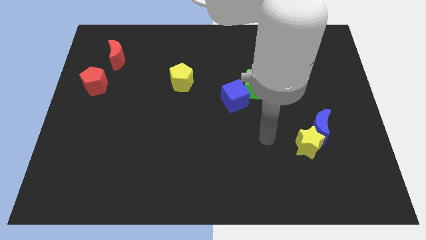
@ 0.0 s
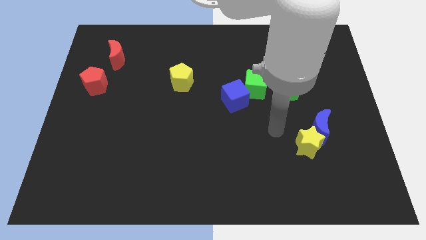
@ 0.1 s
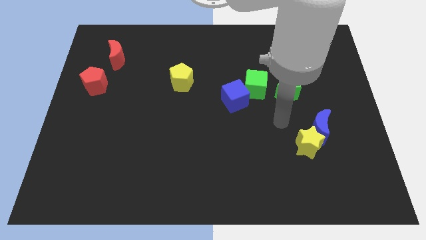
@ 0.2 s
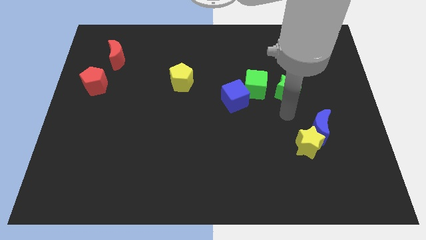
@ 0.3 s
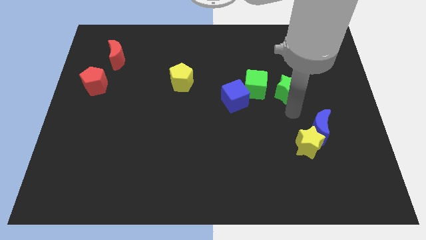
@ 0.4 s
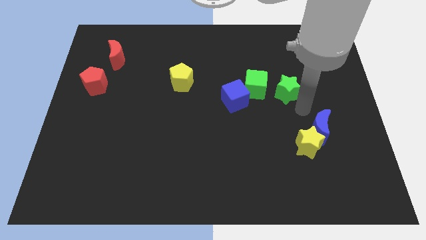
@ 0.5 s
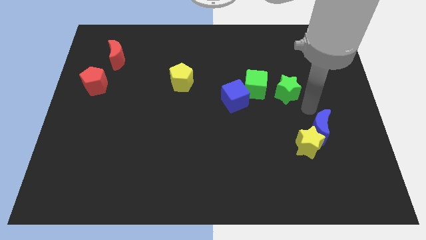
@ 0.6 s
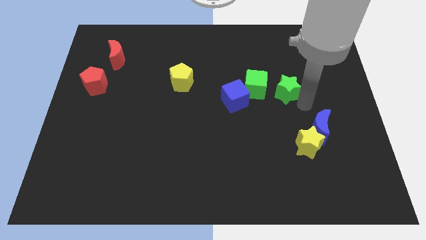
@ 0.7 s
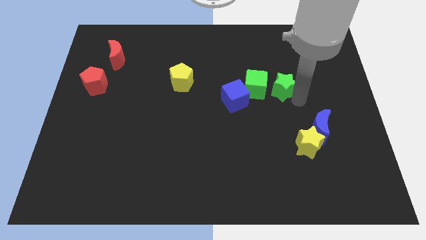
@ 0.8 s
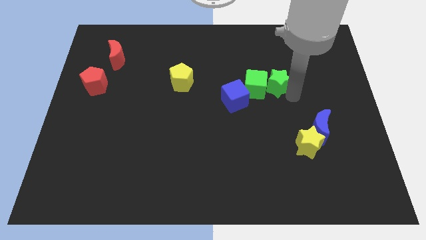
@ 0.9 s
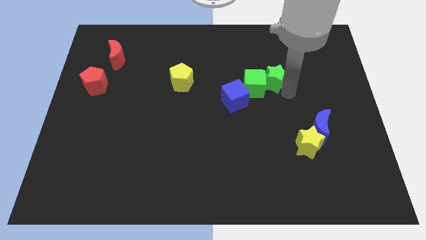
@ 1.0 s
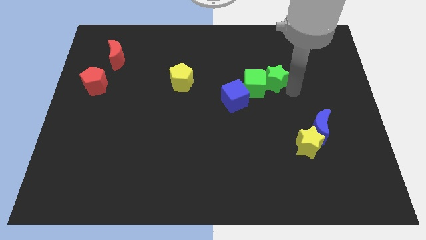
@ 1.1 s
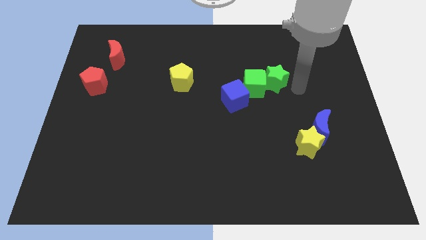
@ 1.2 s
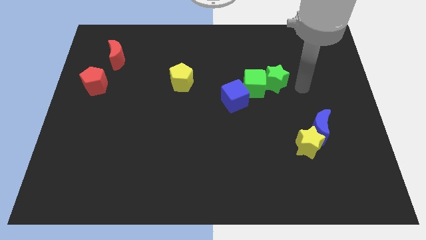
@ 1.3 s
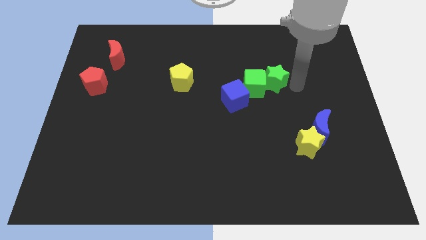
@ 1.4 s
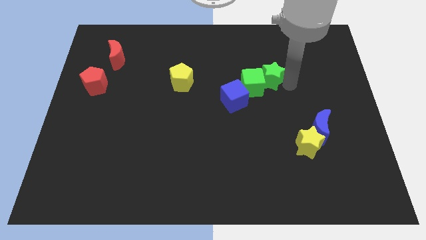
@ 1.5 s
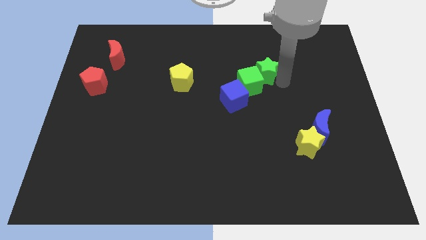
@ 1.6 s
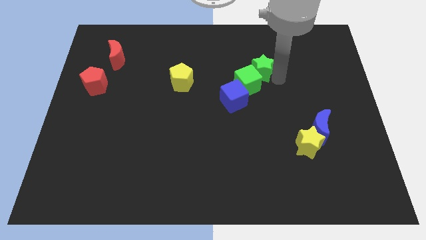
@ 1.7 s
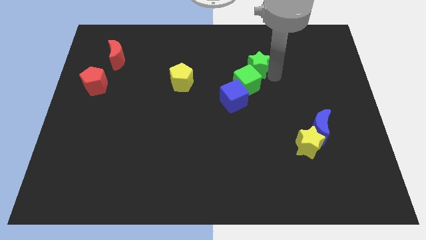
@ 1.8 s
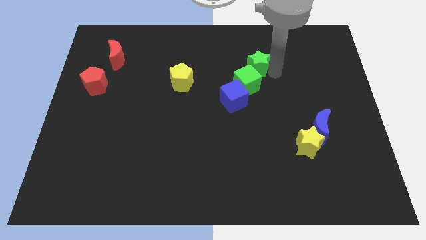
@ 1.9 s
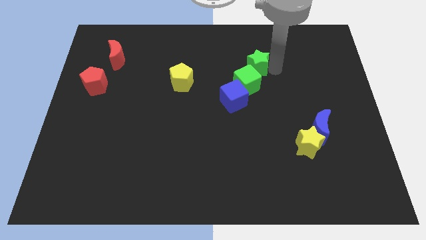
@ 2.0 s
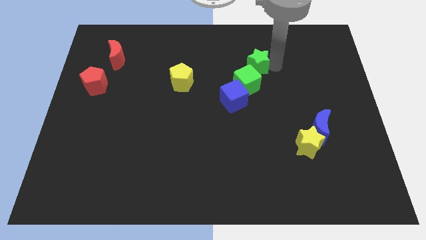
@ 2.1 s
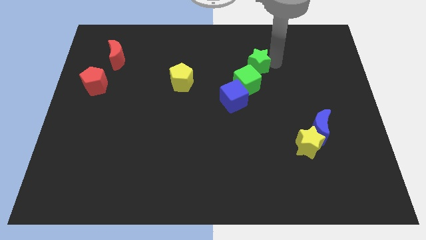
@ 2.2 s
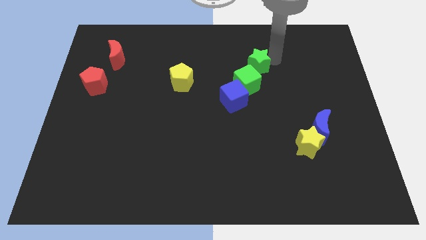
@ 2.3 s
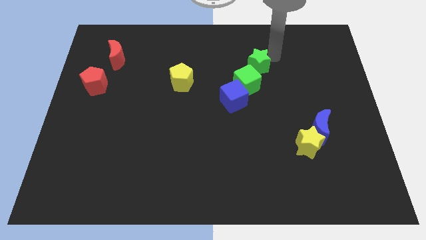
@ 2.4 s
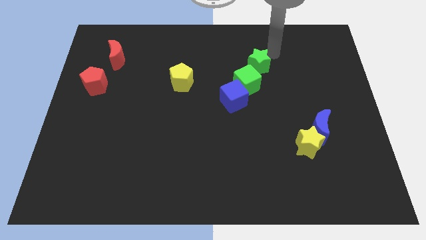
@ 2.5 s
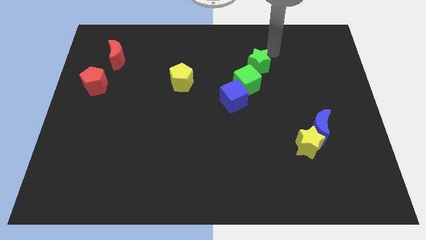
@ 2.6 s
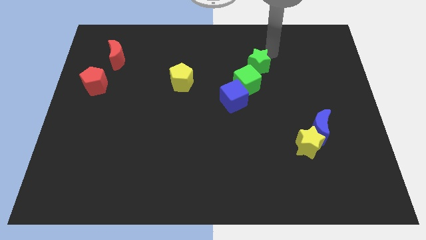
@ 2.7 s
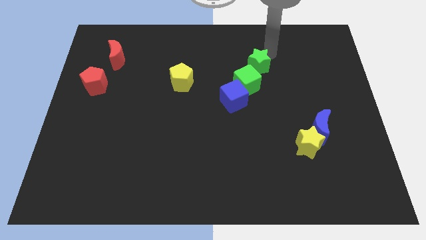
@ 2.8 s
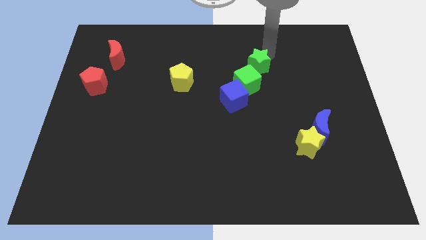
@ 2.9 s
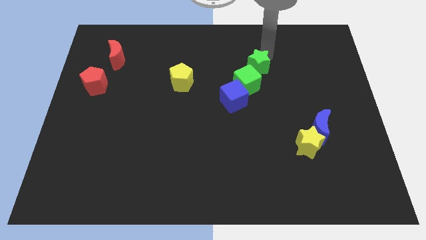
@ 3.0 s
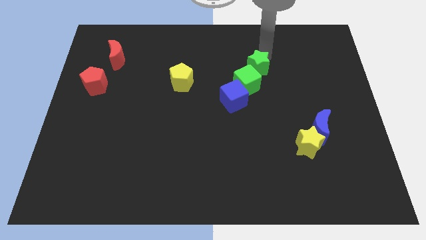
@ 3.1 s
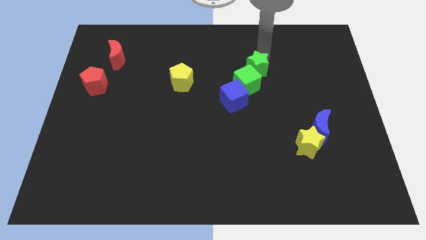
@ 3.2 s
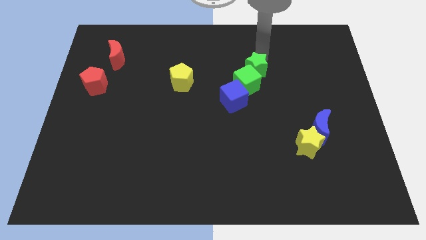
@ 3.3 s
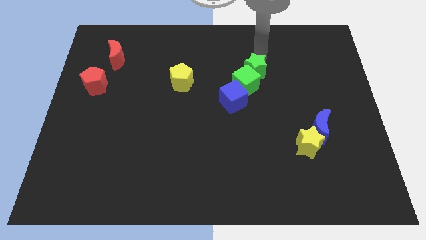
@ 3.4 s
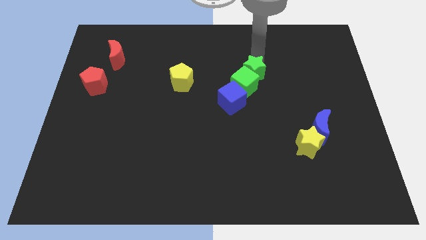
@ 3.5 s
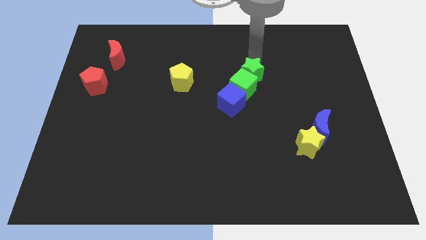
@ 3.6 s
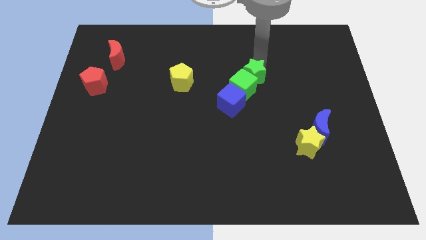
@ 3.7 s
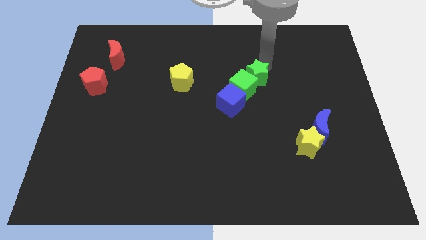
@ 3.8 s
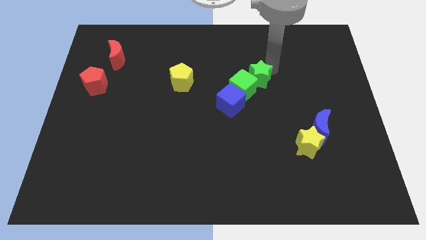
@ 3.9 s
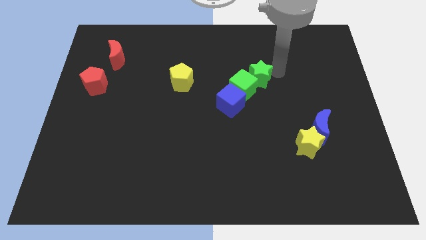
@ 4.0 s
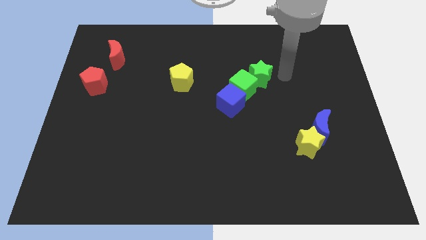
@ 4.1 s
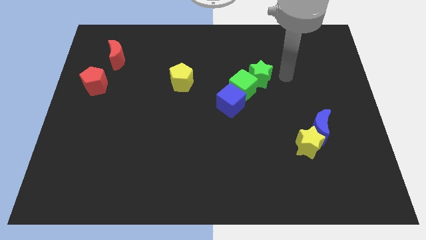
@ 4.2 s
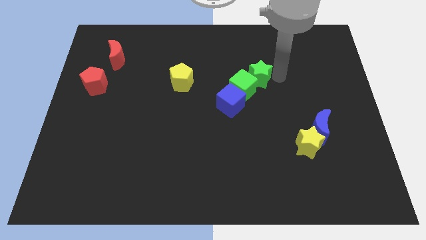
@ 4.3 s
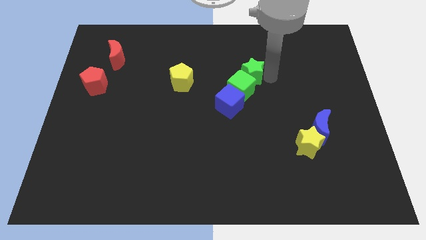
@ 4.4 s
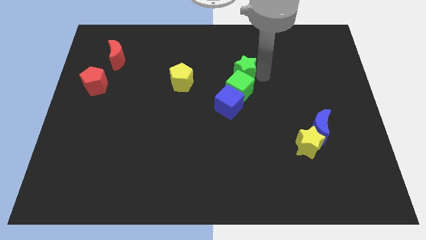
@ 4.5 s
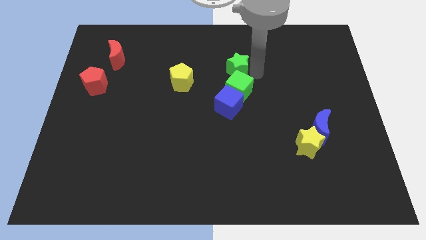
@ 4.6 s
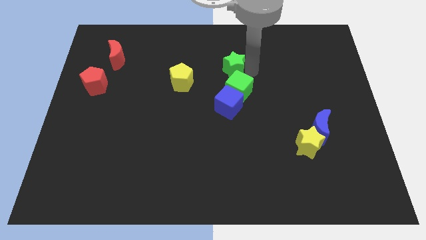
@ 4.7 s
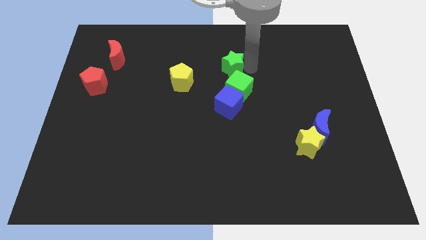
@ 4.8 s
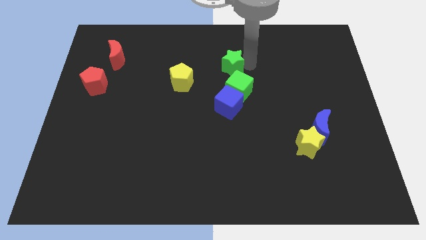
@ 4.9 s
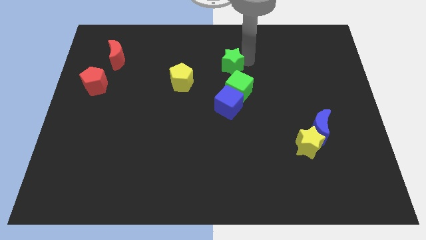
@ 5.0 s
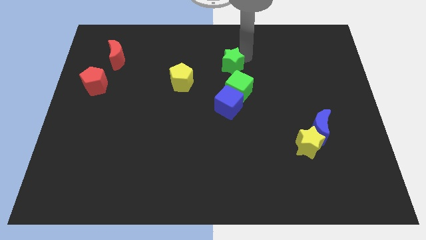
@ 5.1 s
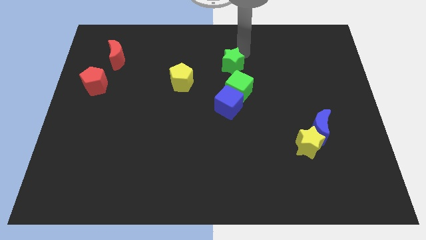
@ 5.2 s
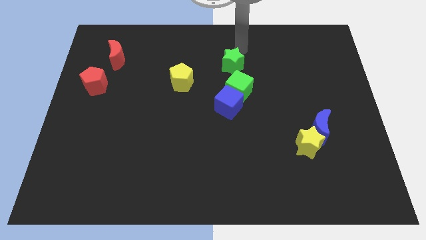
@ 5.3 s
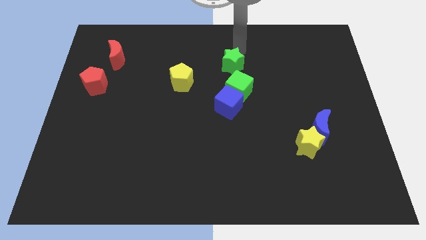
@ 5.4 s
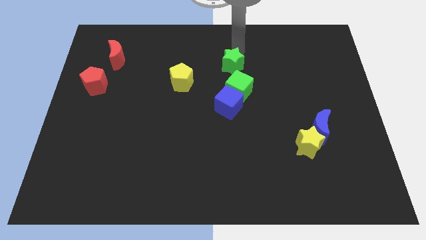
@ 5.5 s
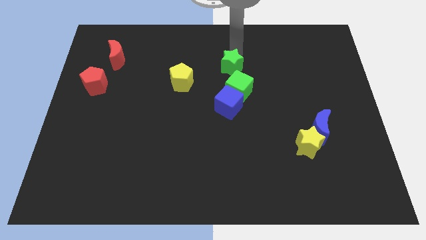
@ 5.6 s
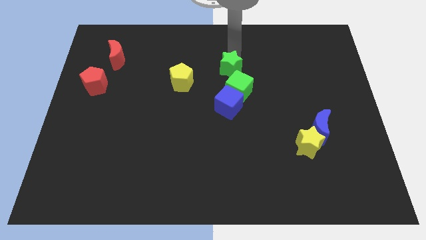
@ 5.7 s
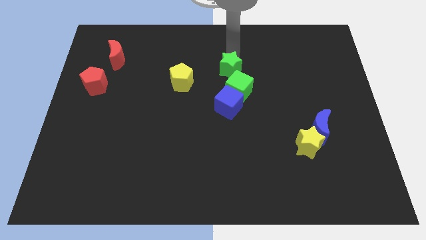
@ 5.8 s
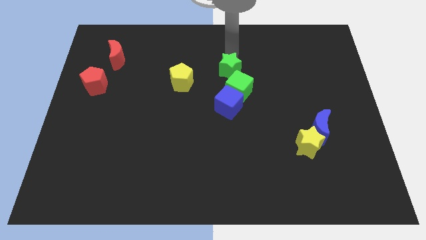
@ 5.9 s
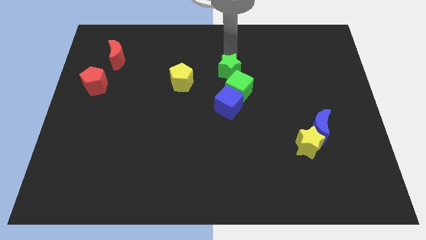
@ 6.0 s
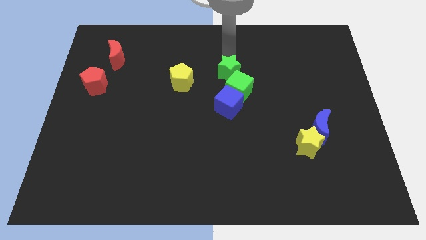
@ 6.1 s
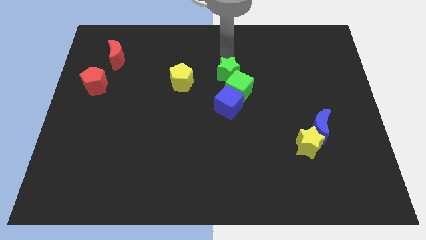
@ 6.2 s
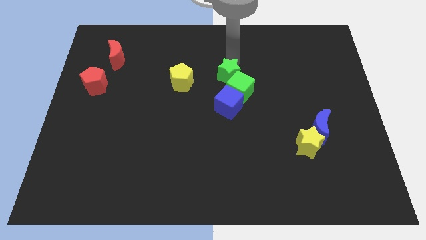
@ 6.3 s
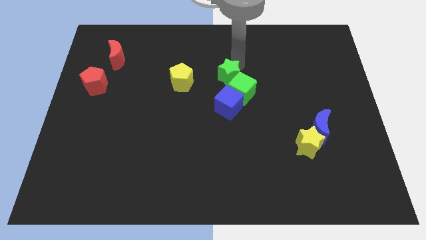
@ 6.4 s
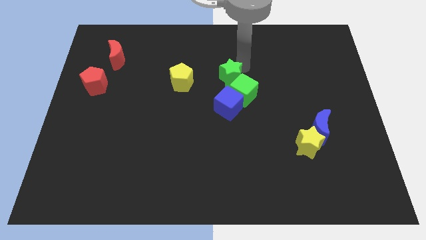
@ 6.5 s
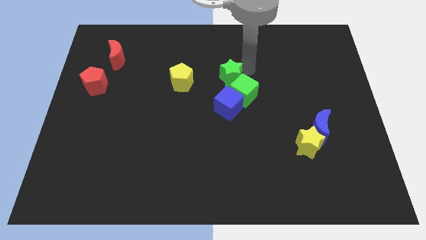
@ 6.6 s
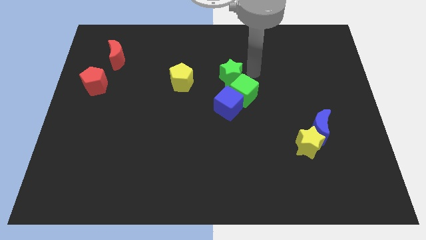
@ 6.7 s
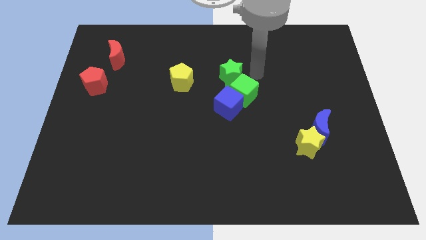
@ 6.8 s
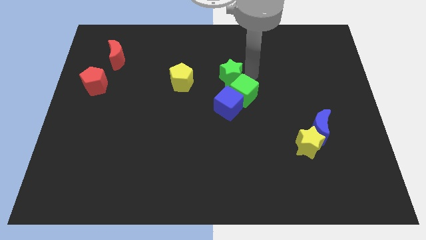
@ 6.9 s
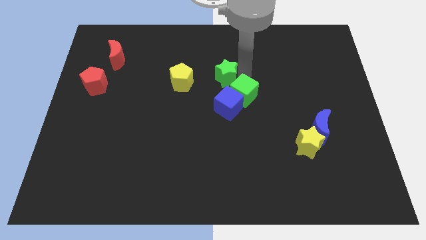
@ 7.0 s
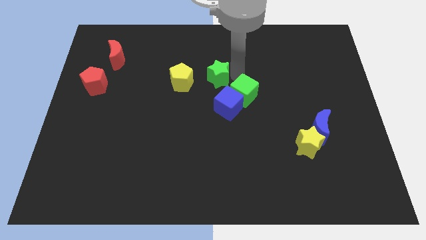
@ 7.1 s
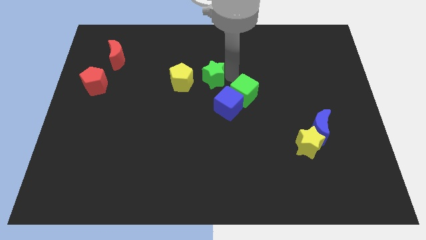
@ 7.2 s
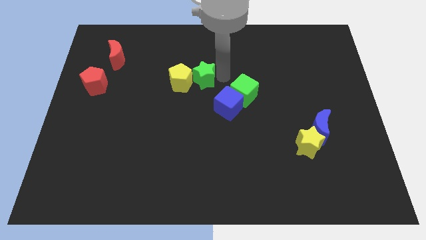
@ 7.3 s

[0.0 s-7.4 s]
push the green star towards the yellow pentagon
